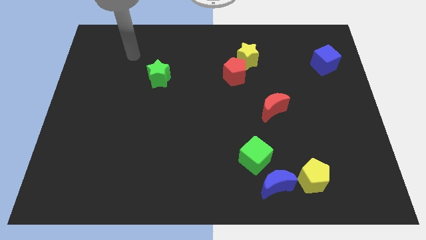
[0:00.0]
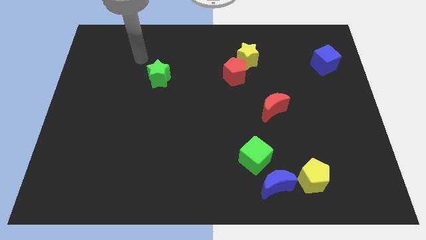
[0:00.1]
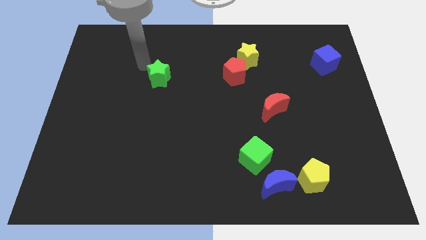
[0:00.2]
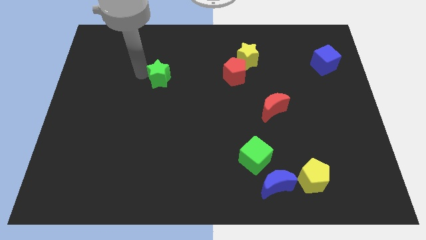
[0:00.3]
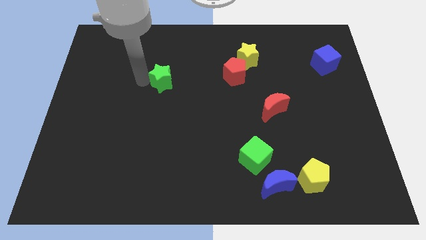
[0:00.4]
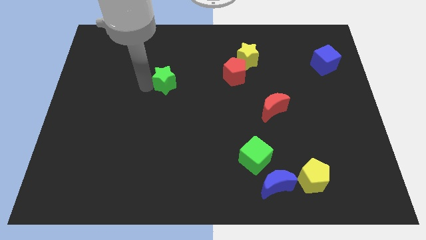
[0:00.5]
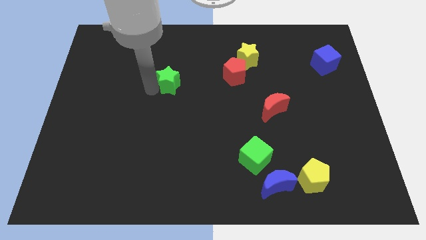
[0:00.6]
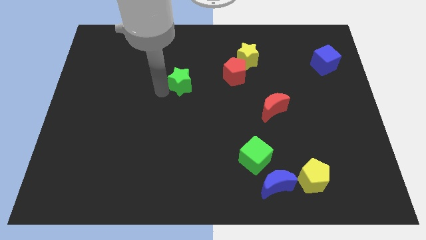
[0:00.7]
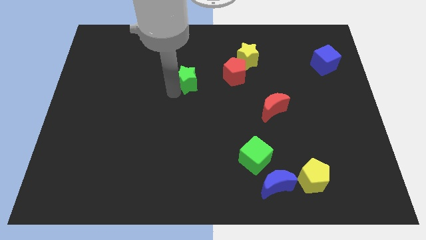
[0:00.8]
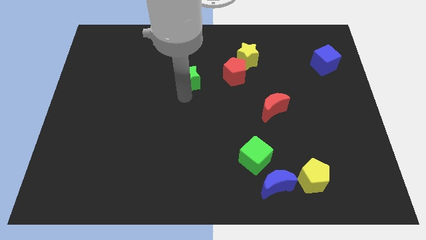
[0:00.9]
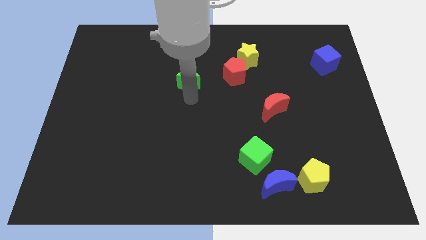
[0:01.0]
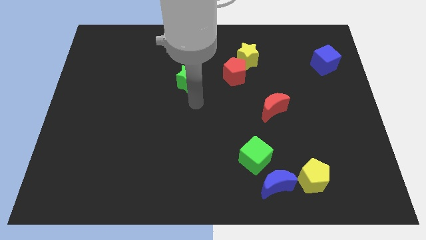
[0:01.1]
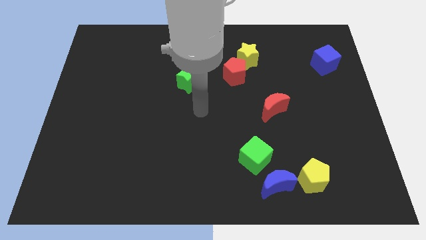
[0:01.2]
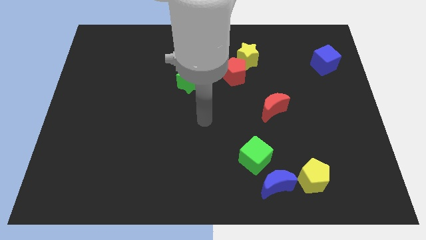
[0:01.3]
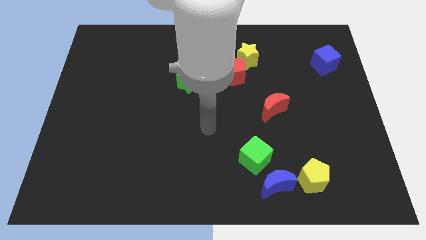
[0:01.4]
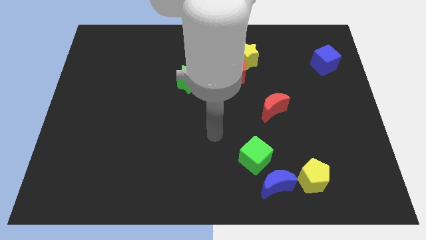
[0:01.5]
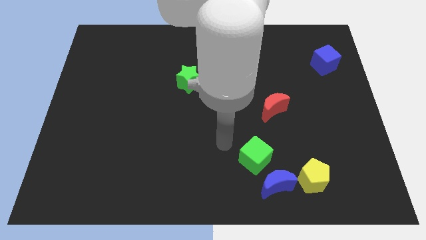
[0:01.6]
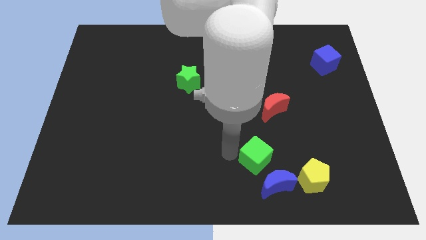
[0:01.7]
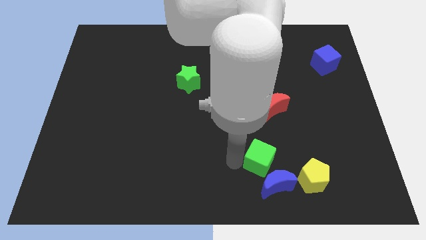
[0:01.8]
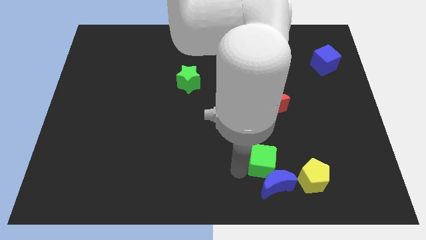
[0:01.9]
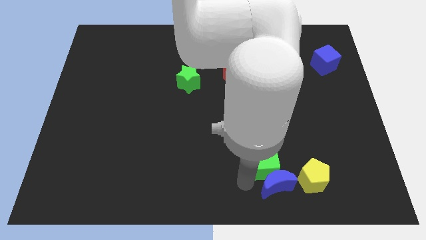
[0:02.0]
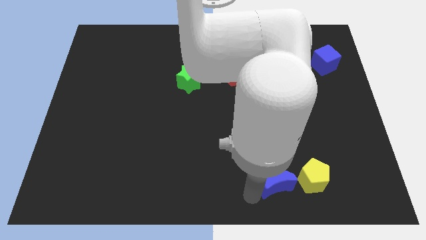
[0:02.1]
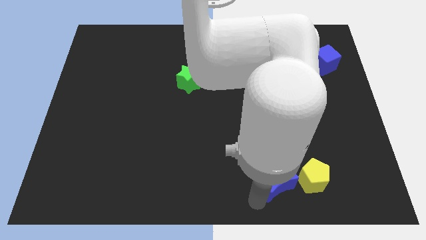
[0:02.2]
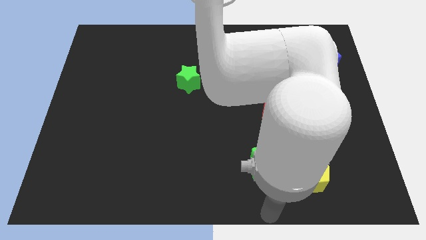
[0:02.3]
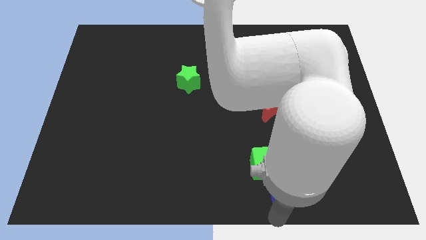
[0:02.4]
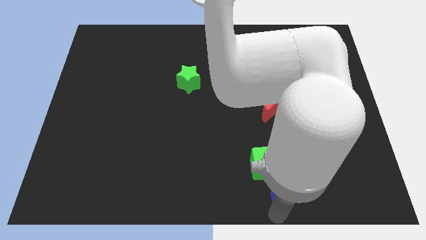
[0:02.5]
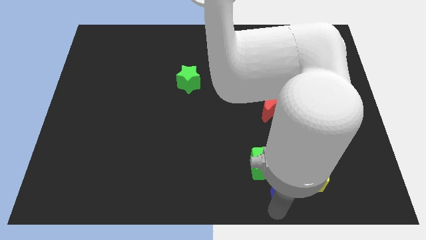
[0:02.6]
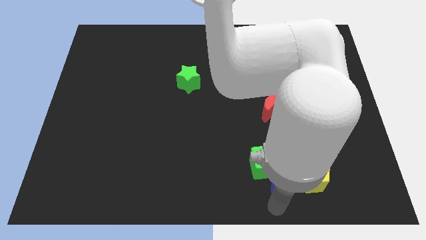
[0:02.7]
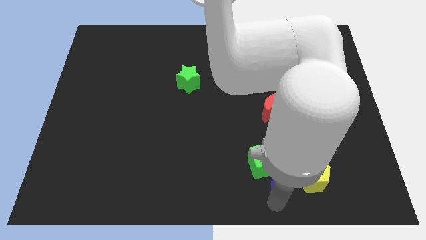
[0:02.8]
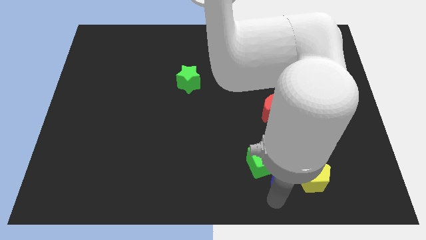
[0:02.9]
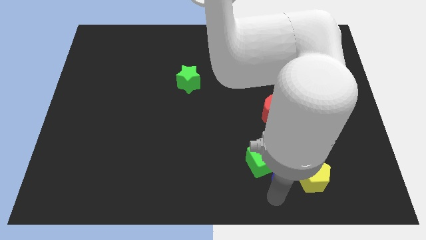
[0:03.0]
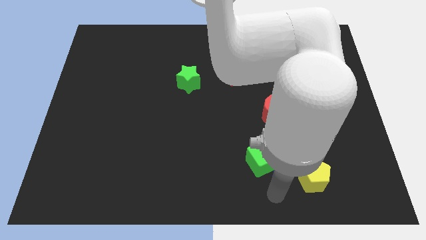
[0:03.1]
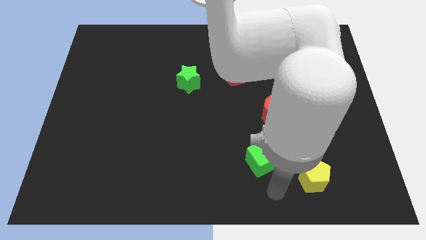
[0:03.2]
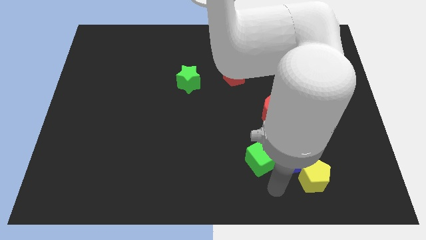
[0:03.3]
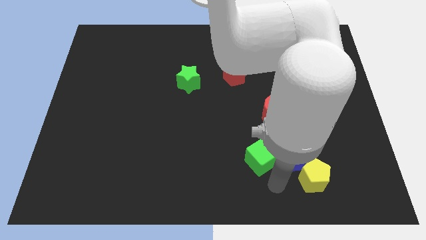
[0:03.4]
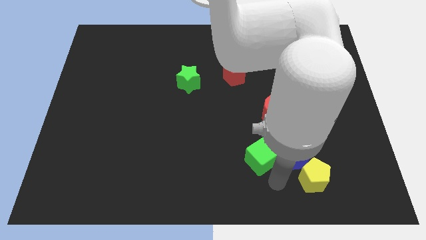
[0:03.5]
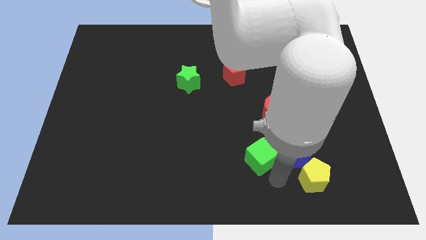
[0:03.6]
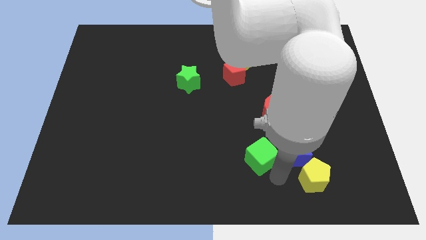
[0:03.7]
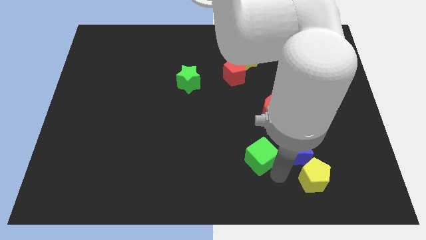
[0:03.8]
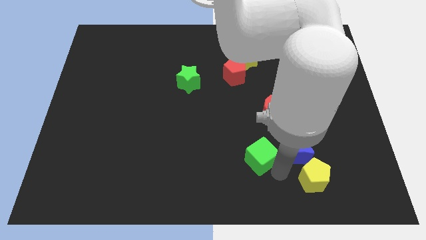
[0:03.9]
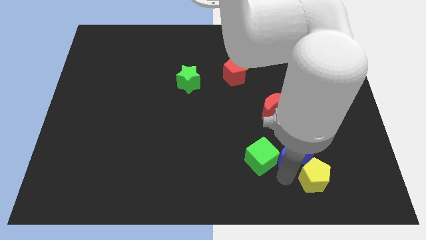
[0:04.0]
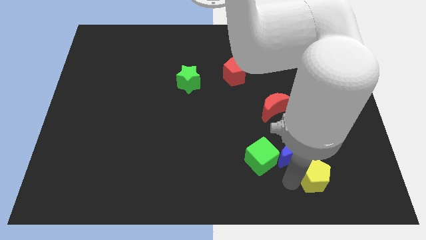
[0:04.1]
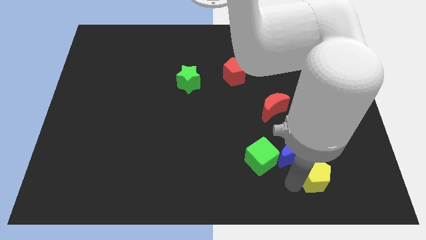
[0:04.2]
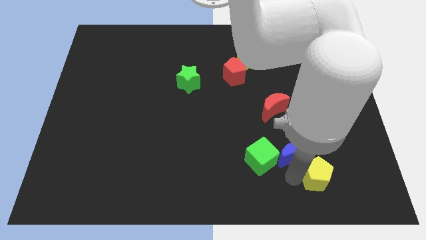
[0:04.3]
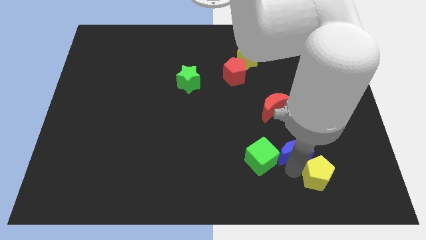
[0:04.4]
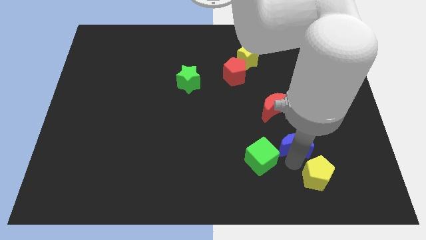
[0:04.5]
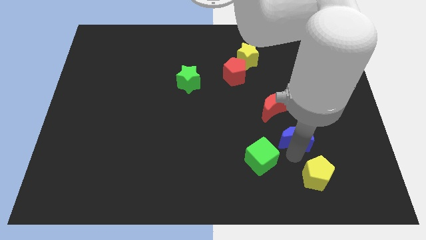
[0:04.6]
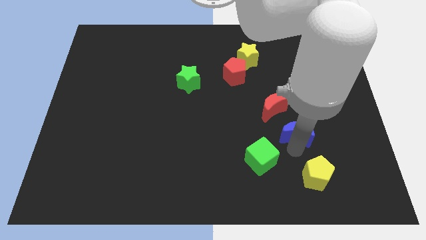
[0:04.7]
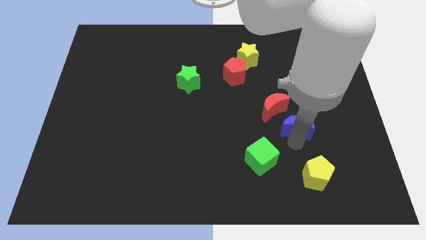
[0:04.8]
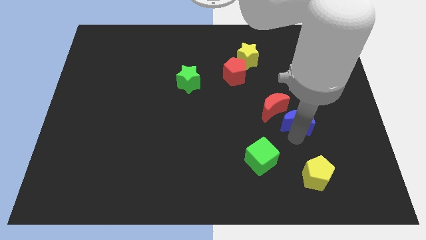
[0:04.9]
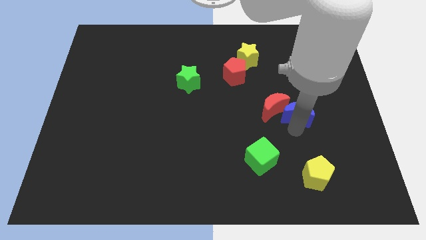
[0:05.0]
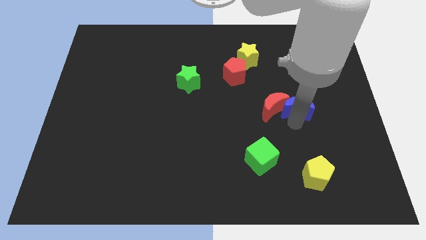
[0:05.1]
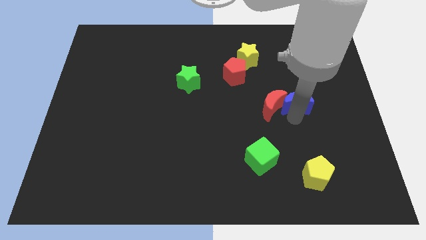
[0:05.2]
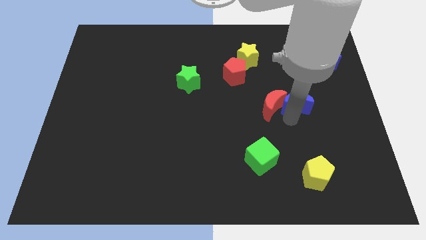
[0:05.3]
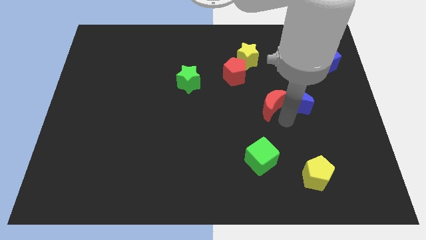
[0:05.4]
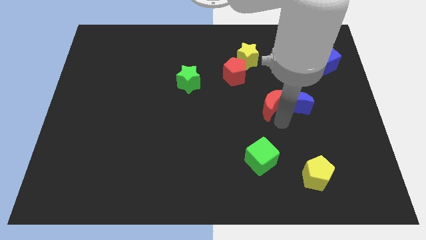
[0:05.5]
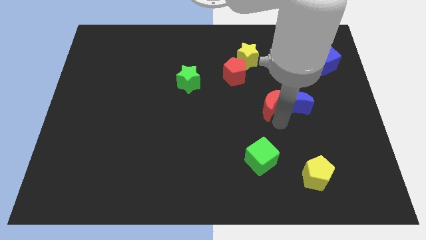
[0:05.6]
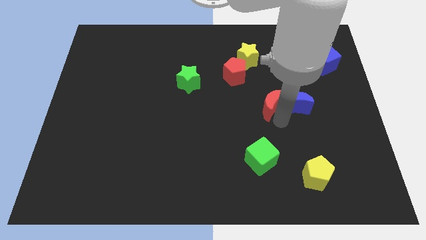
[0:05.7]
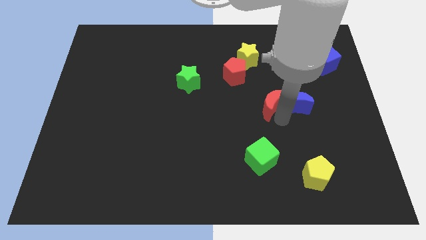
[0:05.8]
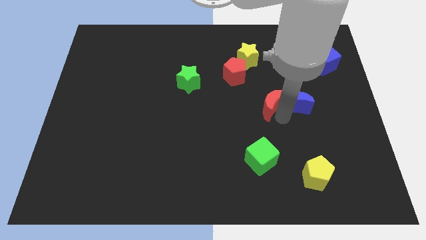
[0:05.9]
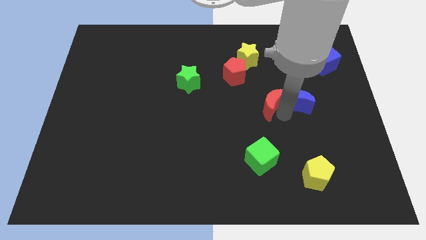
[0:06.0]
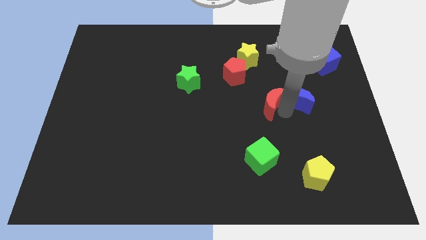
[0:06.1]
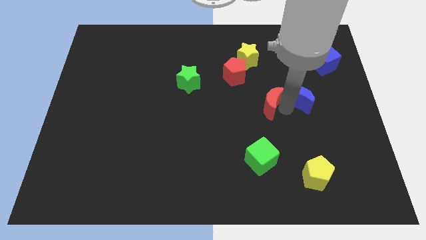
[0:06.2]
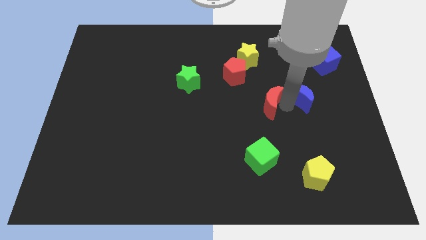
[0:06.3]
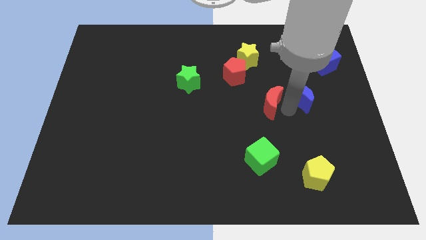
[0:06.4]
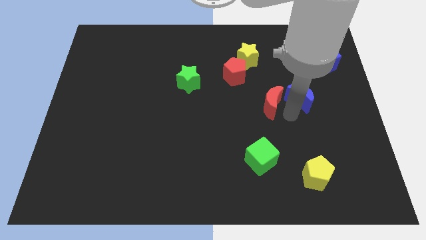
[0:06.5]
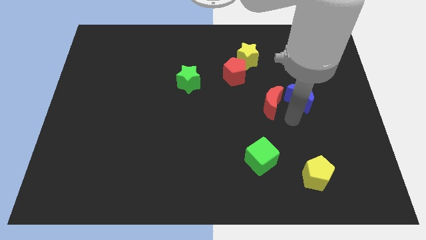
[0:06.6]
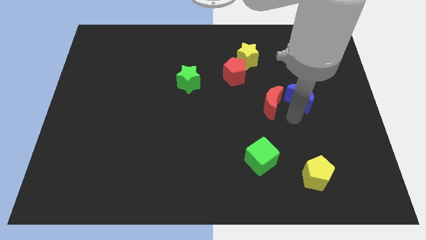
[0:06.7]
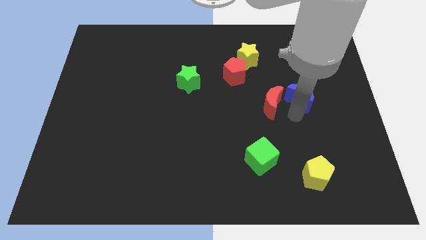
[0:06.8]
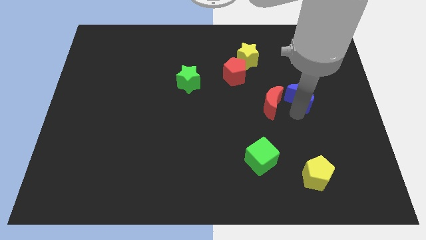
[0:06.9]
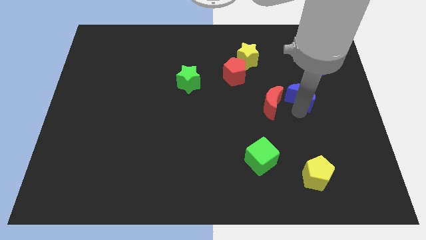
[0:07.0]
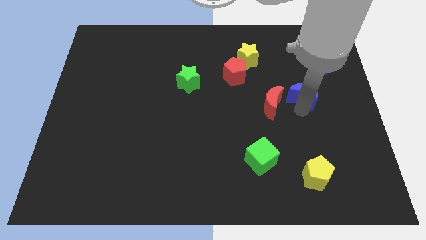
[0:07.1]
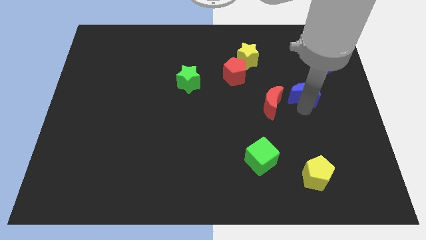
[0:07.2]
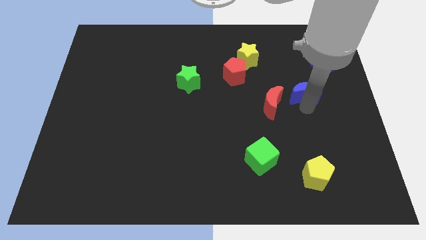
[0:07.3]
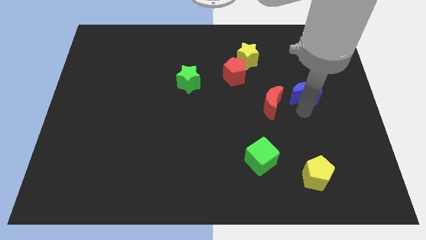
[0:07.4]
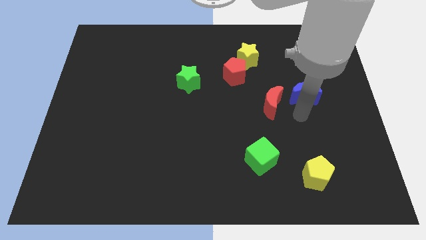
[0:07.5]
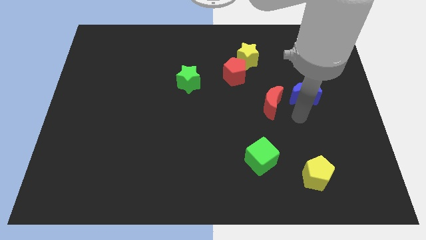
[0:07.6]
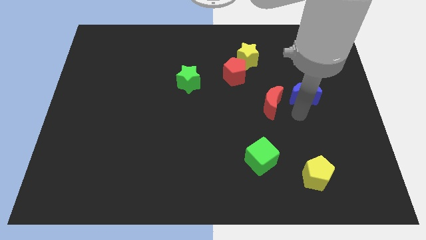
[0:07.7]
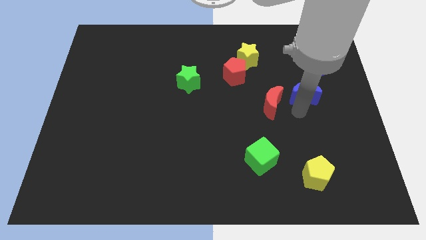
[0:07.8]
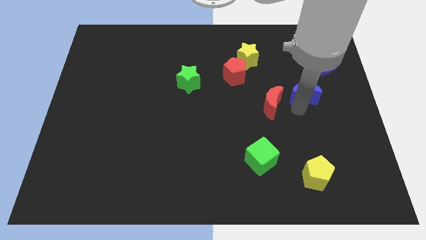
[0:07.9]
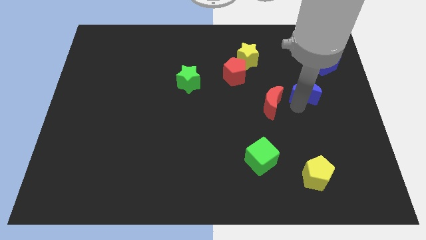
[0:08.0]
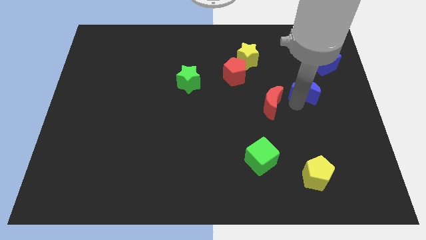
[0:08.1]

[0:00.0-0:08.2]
move the blue moon diagonally down and to the left of the blue cube
